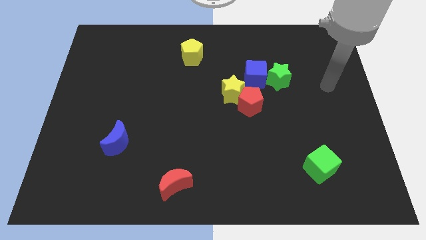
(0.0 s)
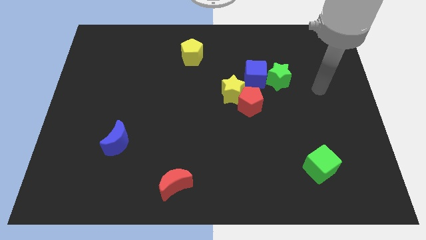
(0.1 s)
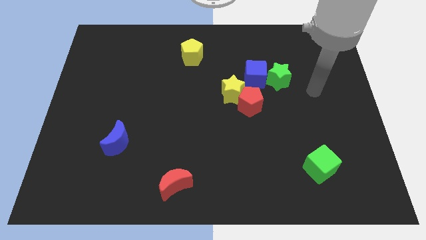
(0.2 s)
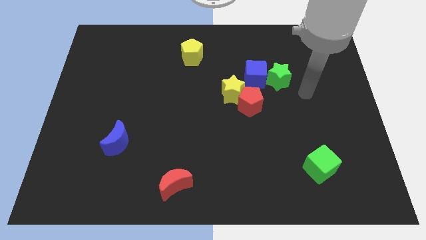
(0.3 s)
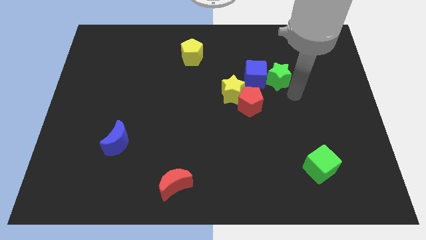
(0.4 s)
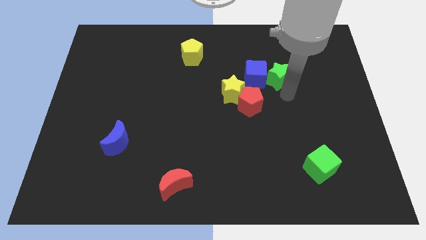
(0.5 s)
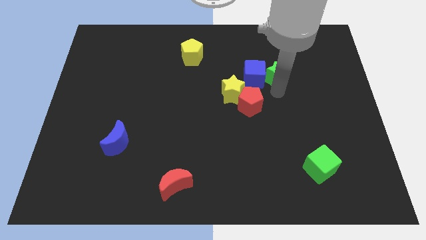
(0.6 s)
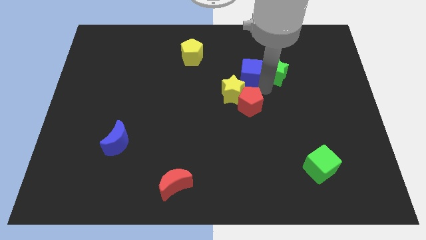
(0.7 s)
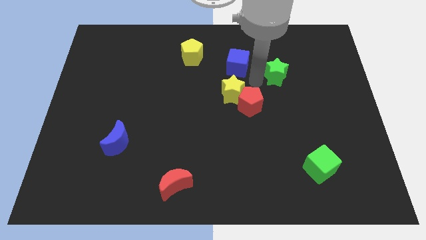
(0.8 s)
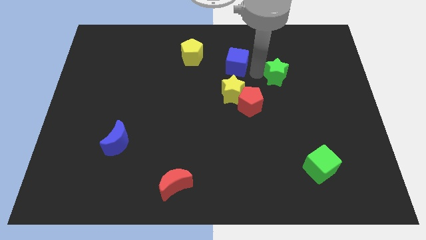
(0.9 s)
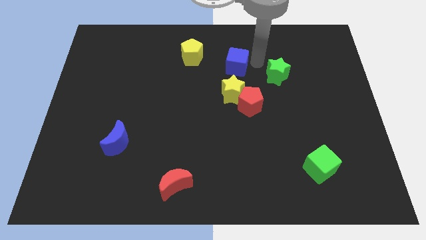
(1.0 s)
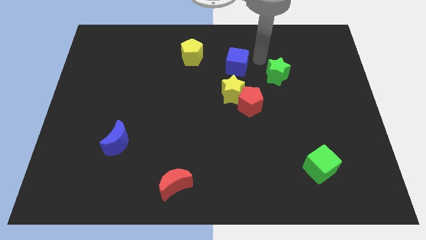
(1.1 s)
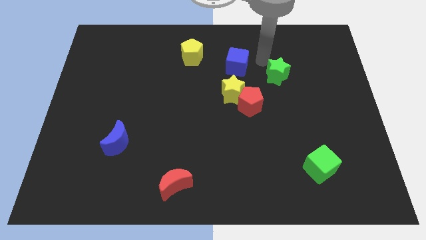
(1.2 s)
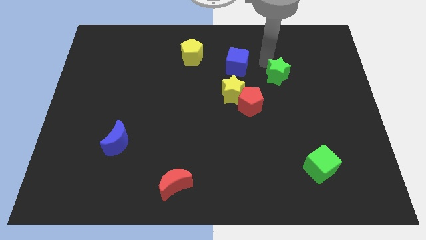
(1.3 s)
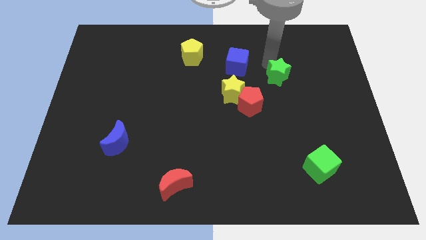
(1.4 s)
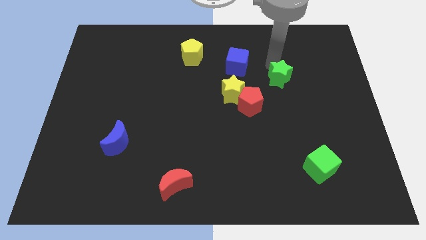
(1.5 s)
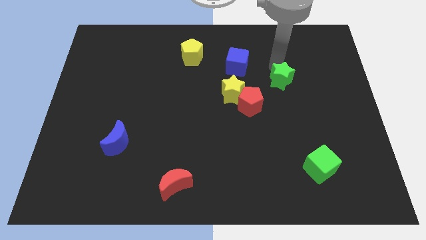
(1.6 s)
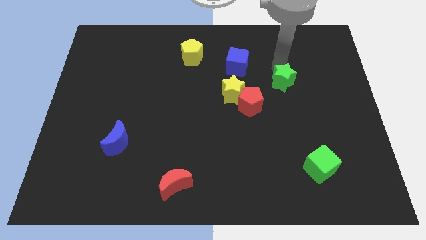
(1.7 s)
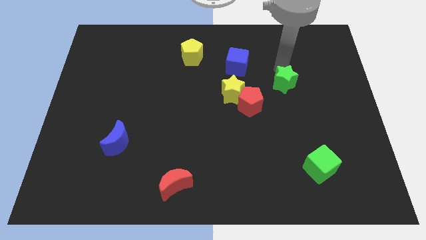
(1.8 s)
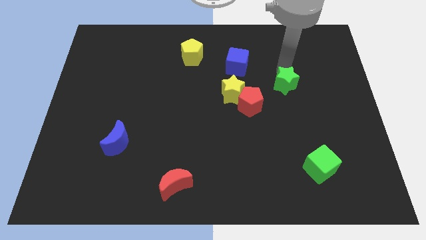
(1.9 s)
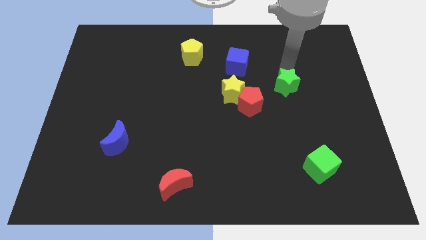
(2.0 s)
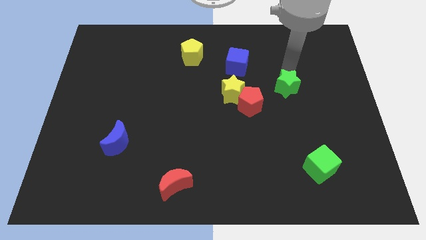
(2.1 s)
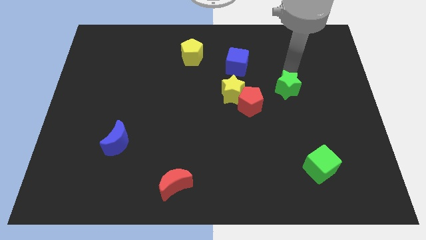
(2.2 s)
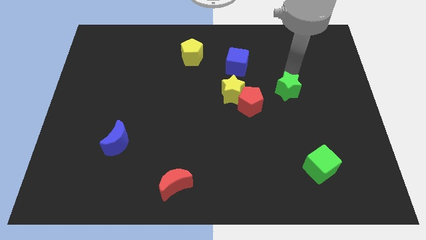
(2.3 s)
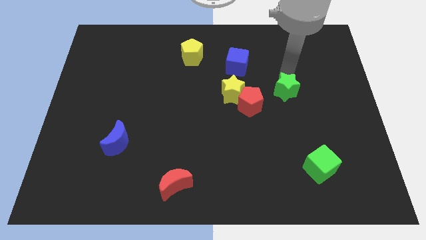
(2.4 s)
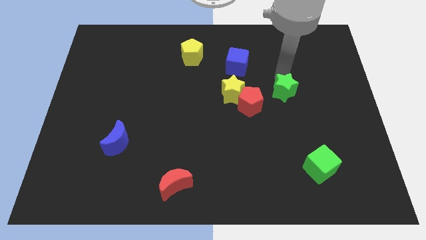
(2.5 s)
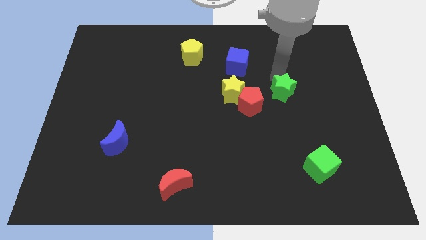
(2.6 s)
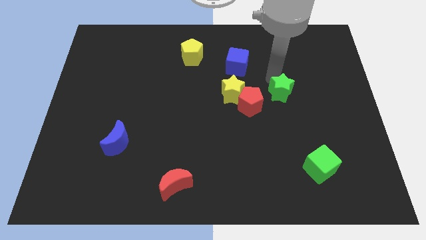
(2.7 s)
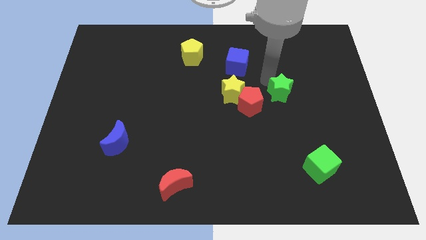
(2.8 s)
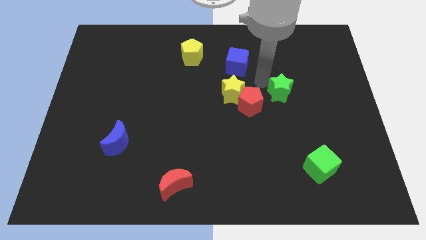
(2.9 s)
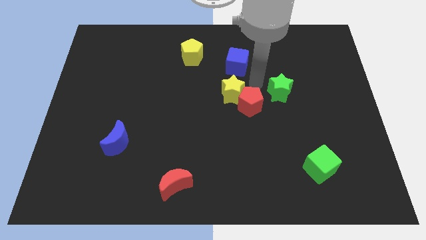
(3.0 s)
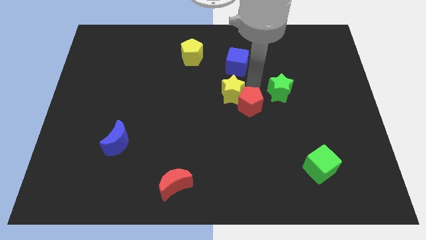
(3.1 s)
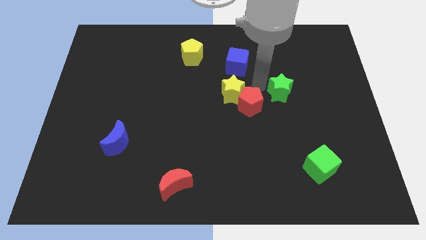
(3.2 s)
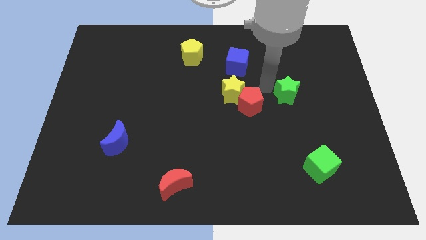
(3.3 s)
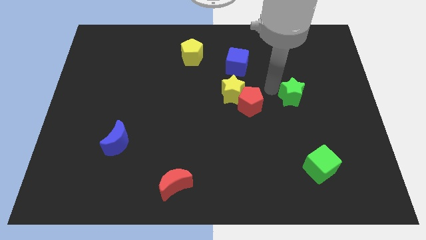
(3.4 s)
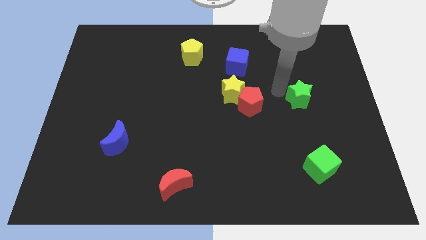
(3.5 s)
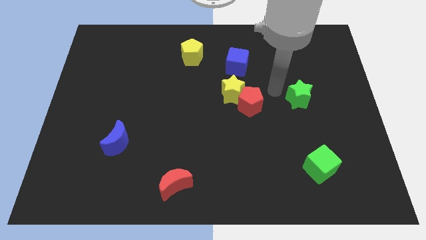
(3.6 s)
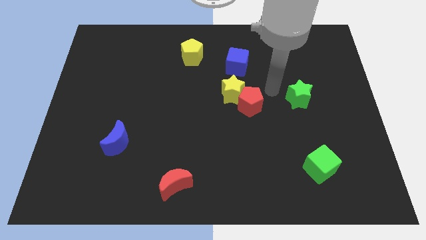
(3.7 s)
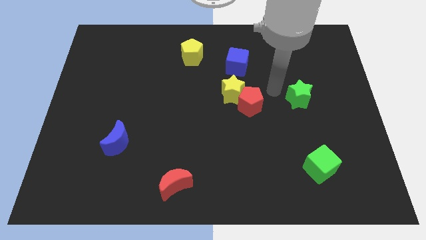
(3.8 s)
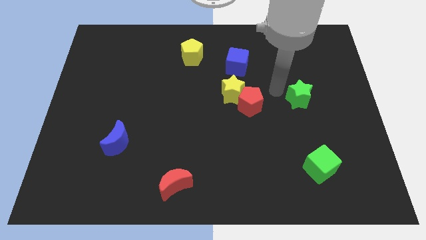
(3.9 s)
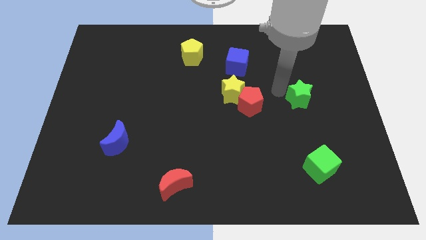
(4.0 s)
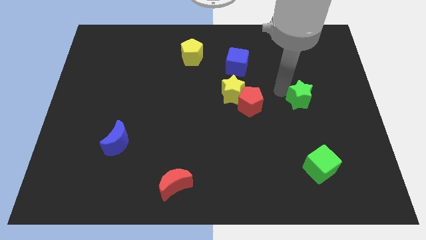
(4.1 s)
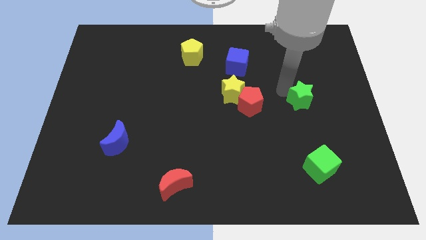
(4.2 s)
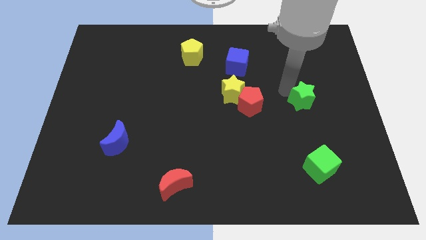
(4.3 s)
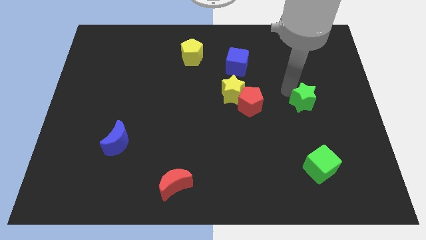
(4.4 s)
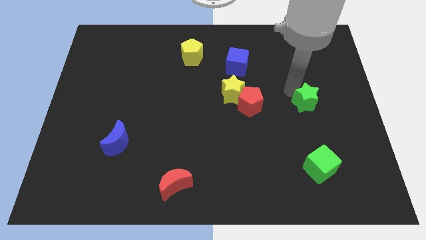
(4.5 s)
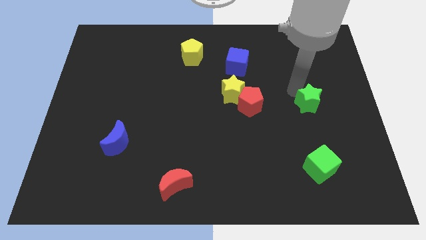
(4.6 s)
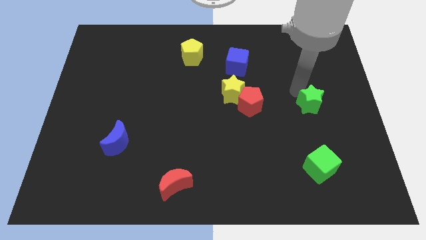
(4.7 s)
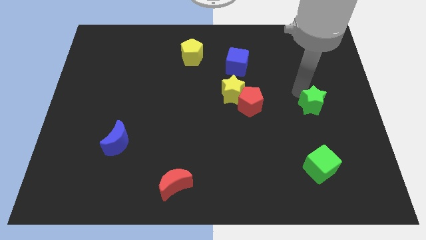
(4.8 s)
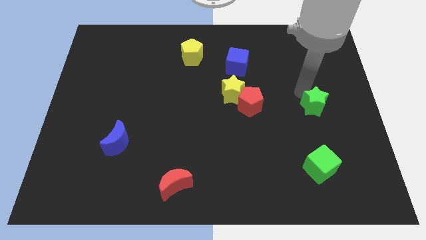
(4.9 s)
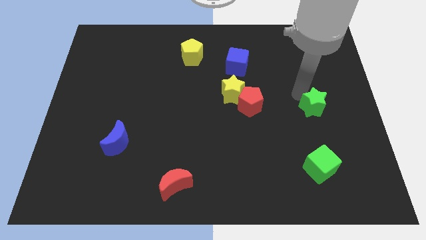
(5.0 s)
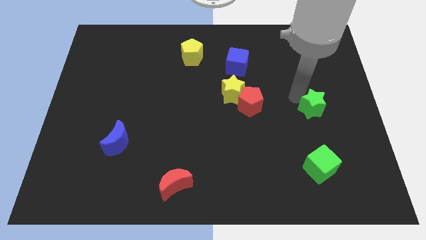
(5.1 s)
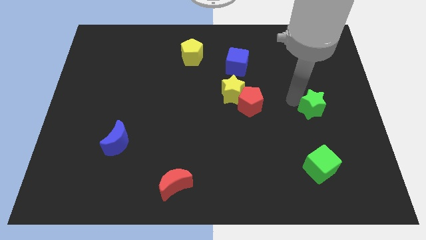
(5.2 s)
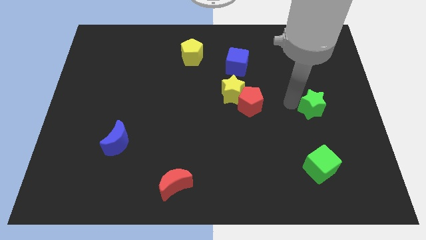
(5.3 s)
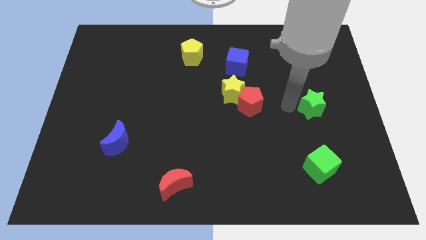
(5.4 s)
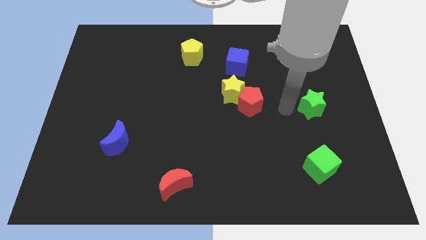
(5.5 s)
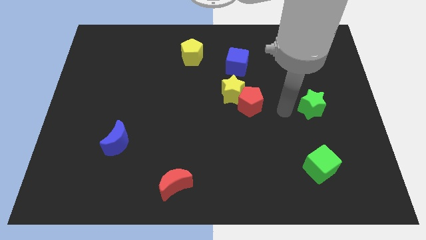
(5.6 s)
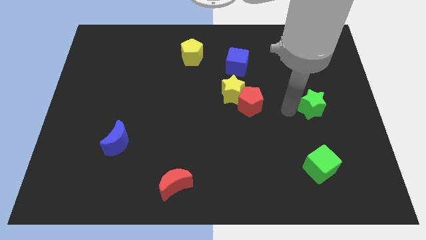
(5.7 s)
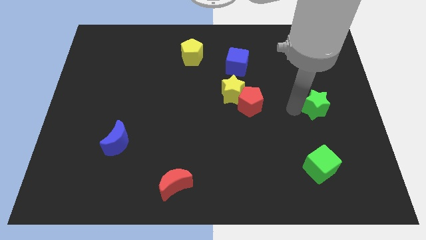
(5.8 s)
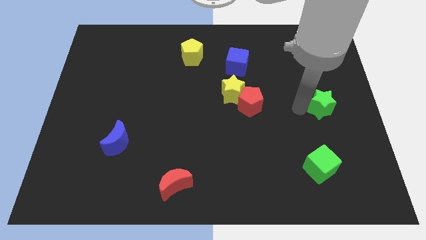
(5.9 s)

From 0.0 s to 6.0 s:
push the green star to the right side of the board

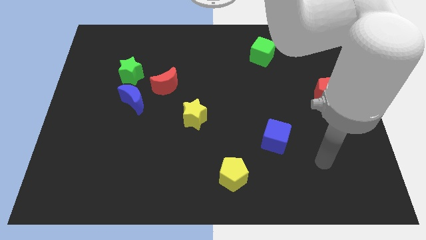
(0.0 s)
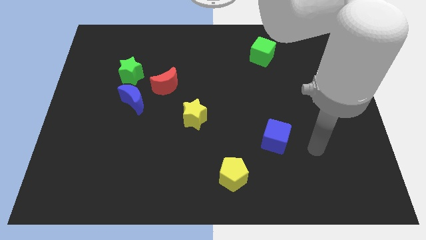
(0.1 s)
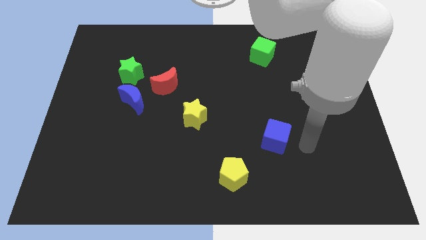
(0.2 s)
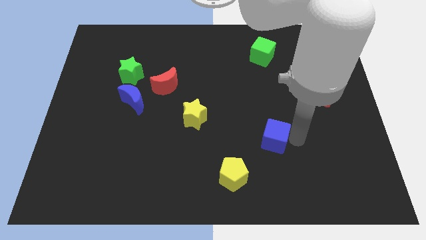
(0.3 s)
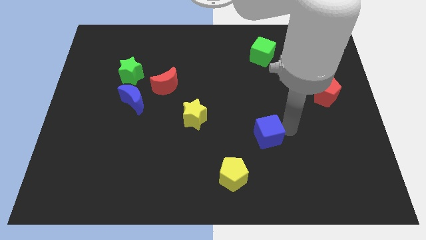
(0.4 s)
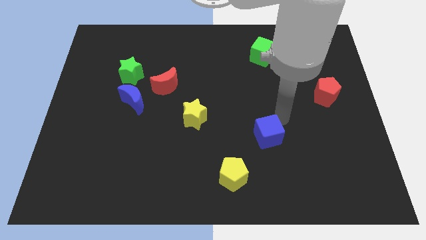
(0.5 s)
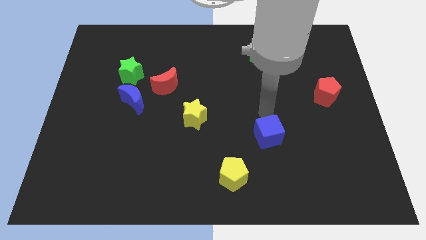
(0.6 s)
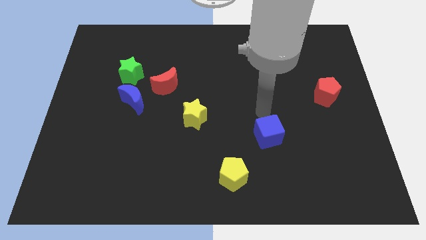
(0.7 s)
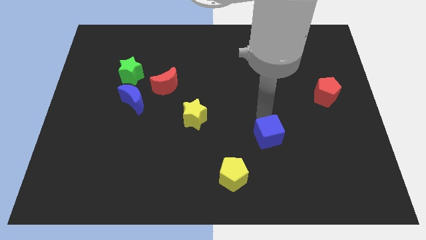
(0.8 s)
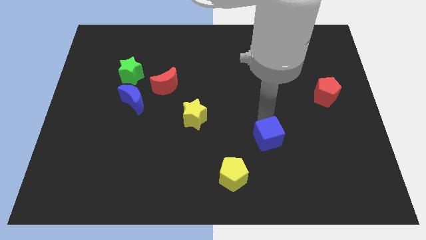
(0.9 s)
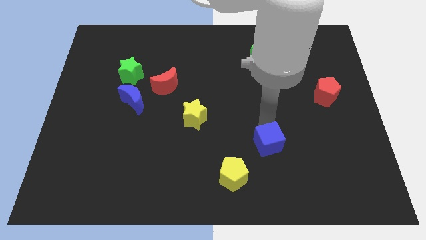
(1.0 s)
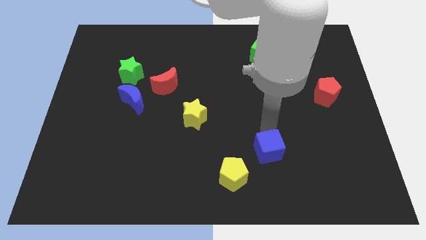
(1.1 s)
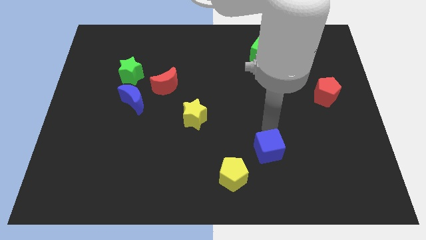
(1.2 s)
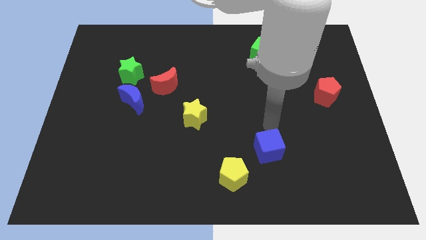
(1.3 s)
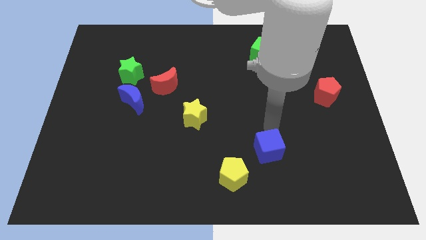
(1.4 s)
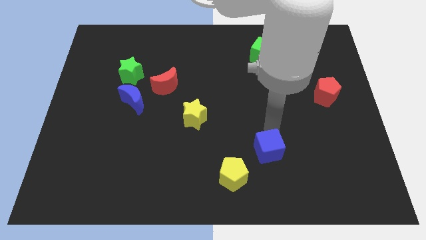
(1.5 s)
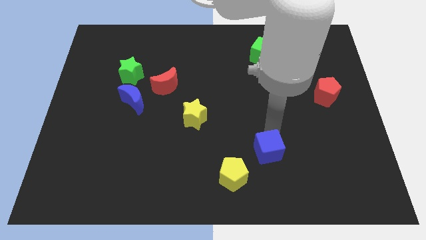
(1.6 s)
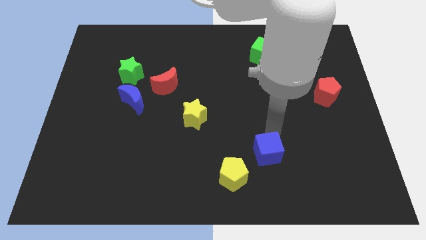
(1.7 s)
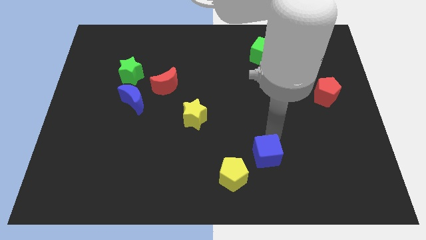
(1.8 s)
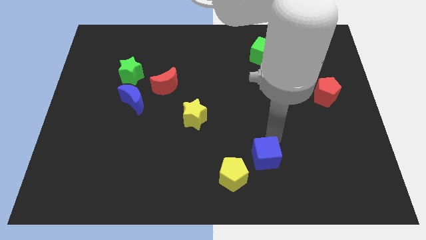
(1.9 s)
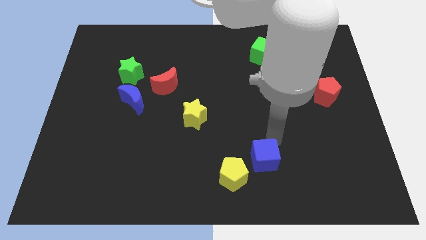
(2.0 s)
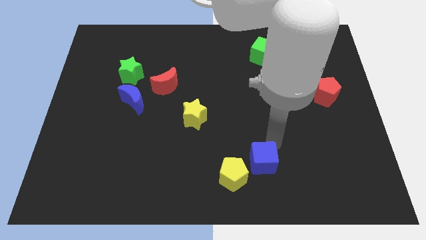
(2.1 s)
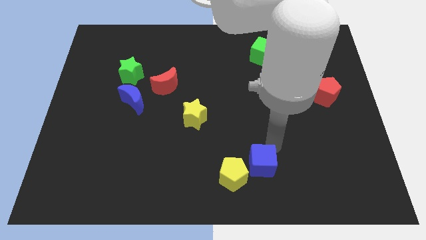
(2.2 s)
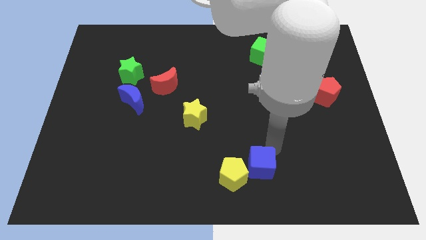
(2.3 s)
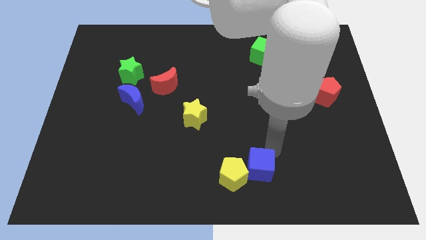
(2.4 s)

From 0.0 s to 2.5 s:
push the blue cube to the bottom side
